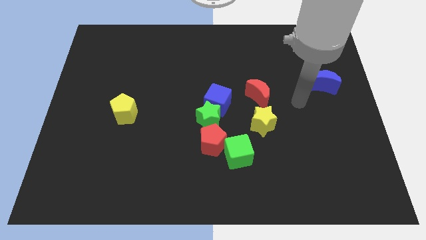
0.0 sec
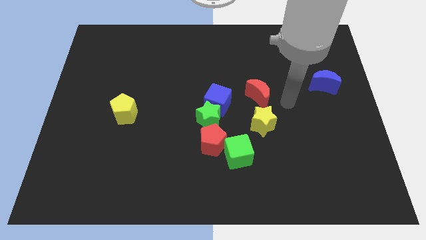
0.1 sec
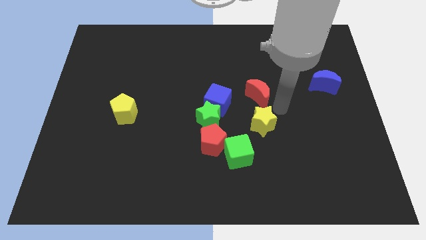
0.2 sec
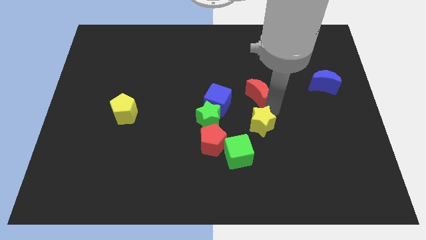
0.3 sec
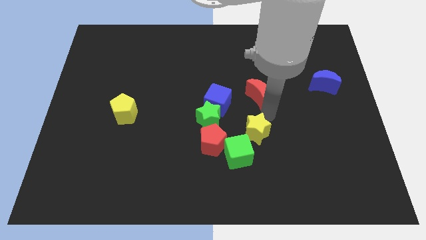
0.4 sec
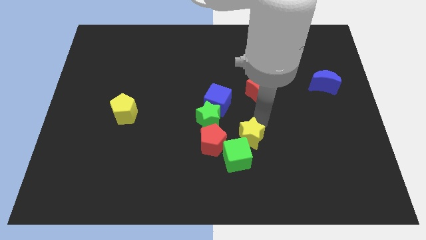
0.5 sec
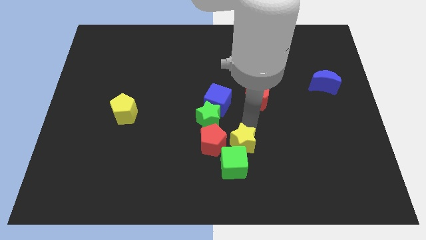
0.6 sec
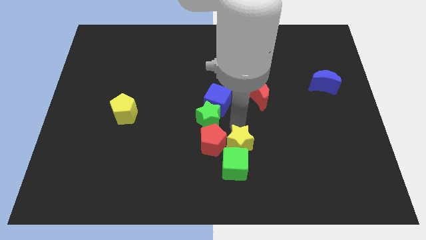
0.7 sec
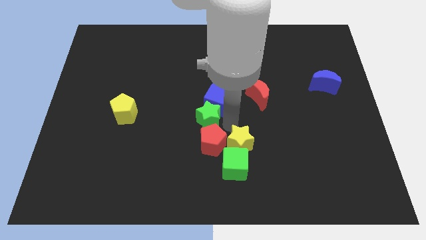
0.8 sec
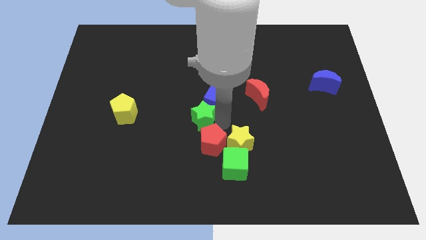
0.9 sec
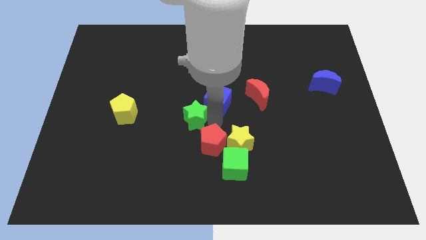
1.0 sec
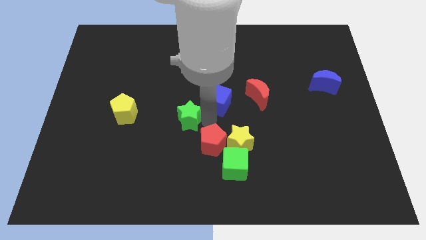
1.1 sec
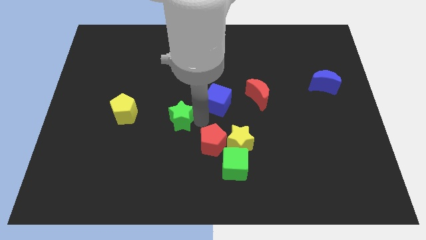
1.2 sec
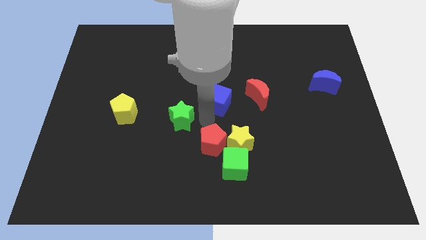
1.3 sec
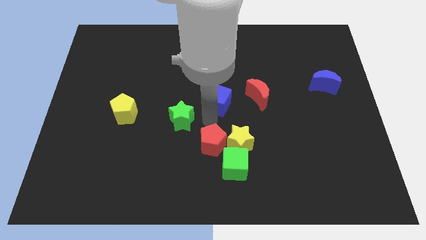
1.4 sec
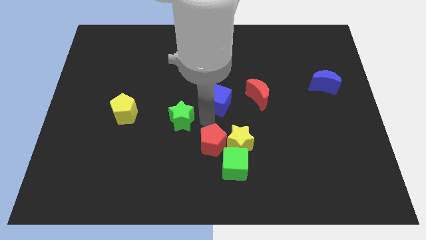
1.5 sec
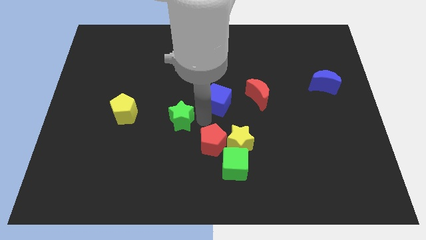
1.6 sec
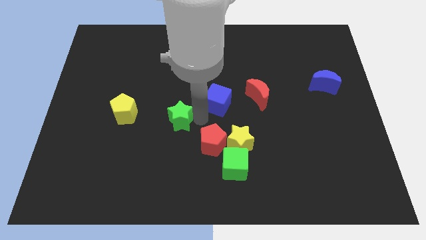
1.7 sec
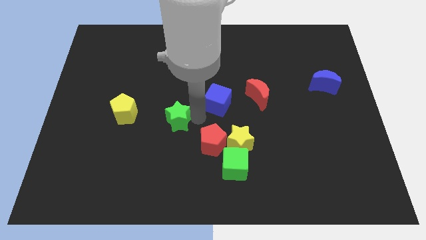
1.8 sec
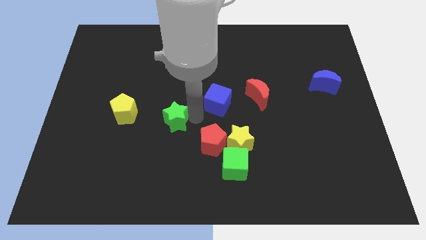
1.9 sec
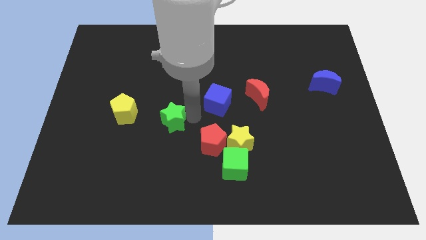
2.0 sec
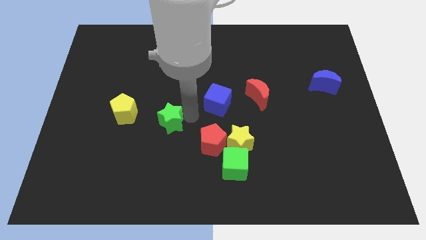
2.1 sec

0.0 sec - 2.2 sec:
pull the green star apart from the blue cube and red pentagon

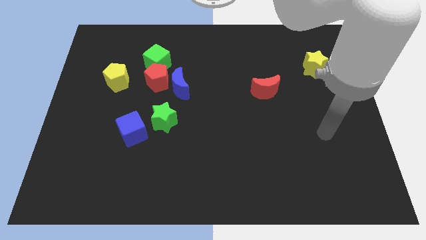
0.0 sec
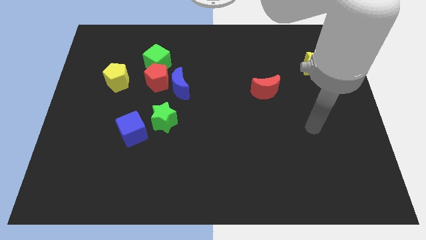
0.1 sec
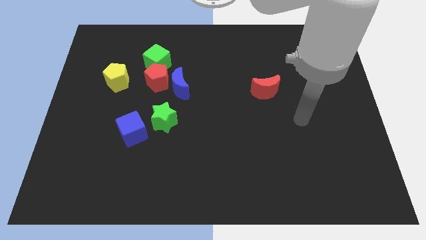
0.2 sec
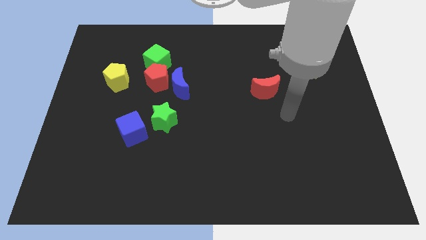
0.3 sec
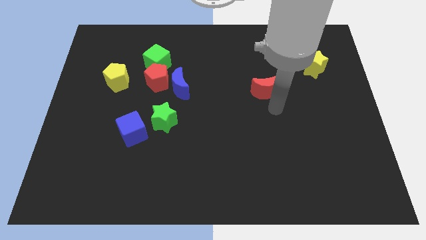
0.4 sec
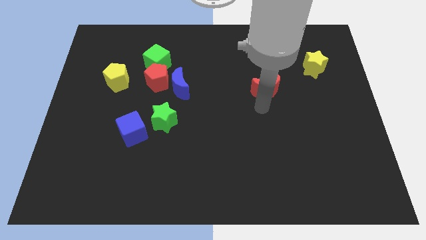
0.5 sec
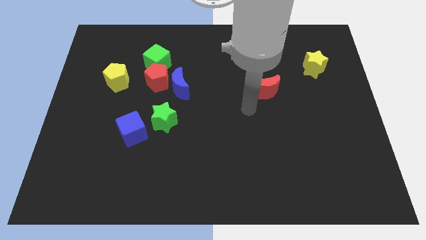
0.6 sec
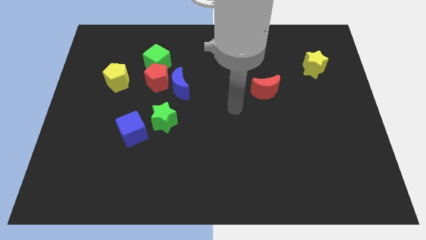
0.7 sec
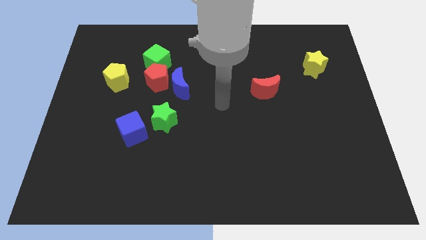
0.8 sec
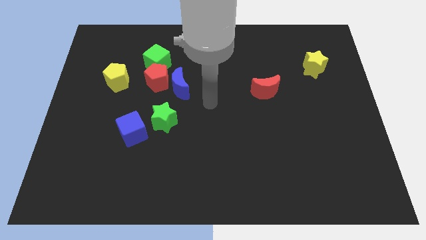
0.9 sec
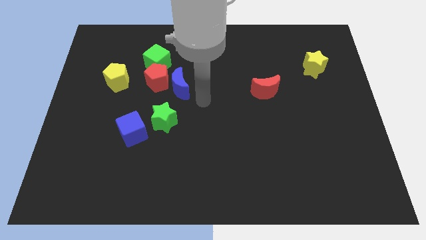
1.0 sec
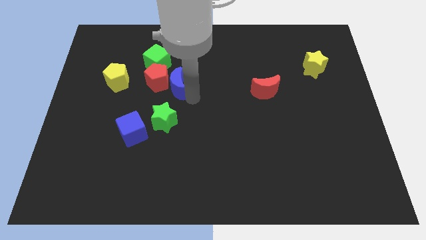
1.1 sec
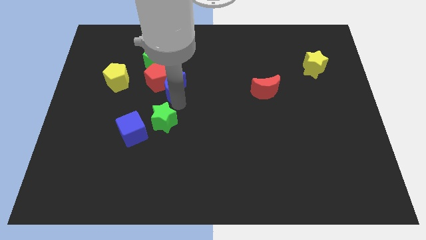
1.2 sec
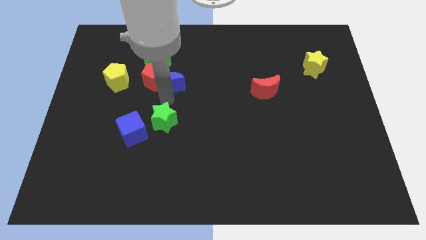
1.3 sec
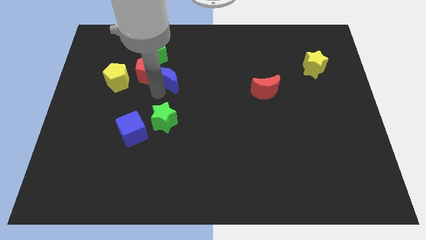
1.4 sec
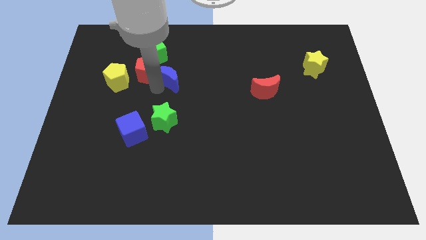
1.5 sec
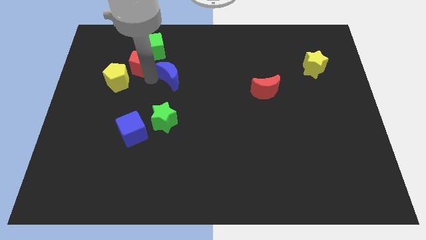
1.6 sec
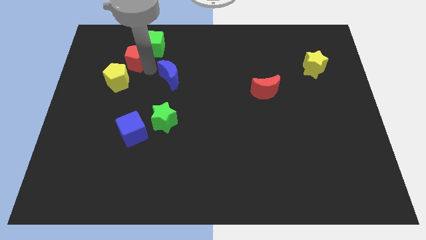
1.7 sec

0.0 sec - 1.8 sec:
move the blue moon away from the red pentagon

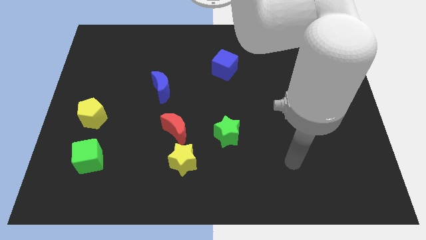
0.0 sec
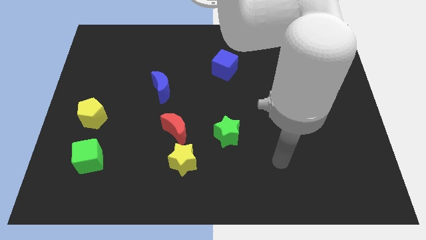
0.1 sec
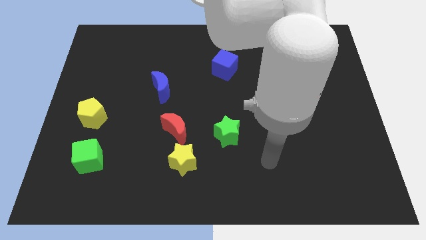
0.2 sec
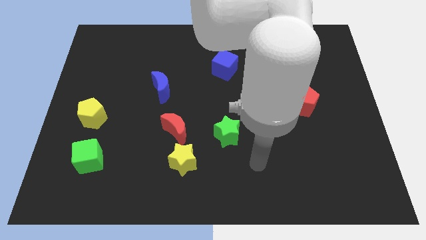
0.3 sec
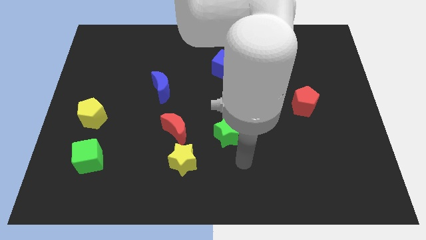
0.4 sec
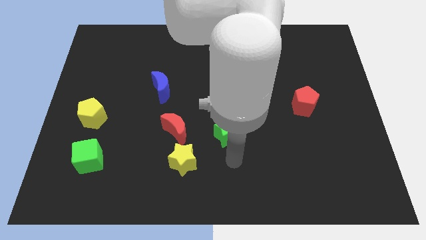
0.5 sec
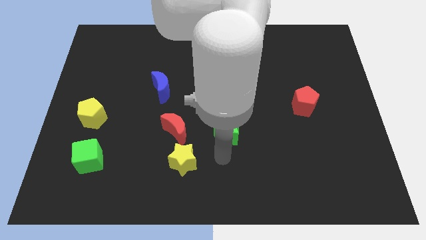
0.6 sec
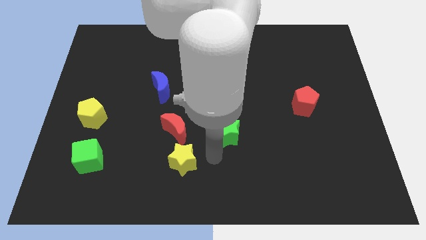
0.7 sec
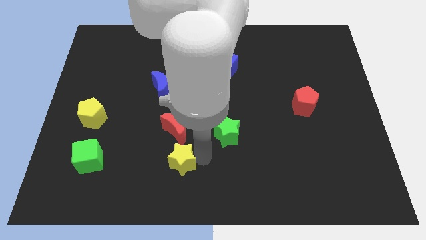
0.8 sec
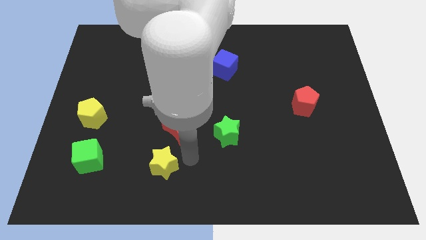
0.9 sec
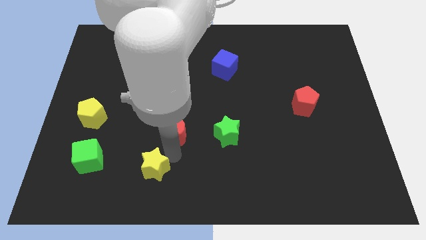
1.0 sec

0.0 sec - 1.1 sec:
move the red moon away from the yellow star

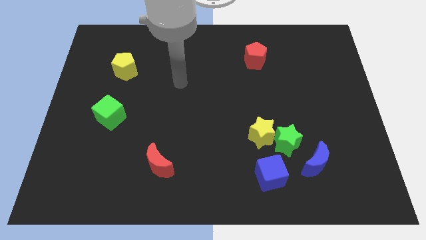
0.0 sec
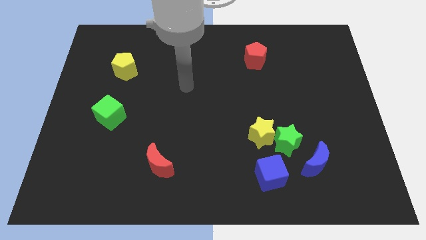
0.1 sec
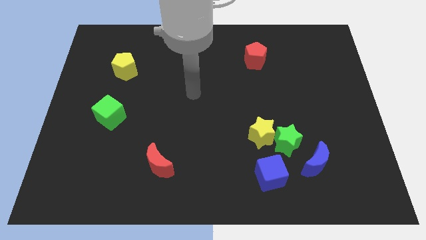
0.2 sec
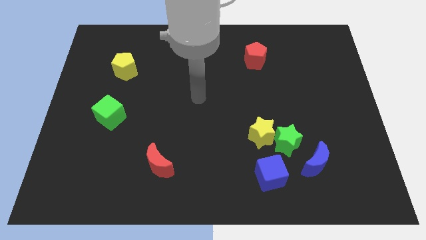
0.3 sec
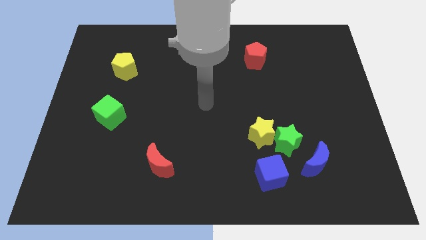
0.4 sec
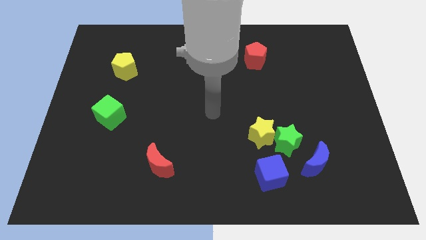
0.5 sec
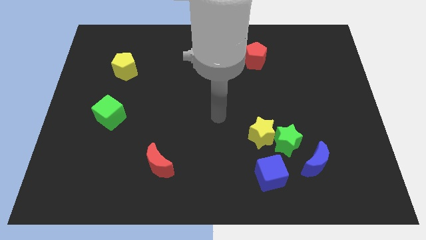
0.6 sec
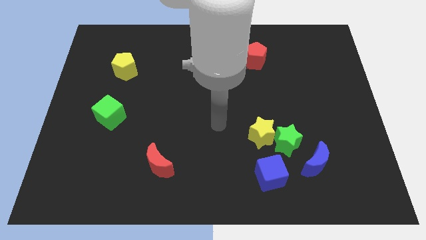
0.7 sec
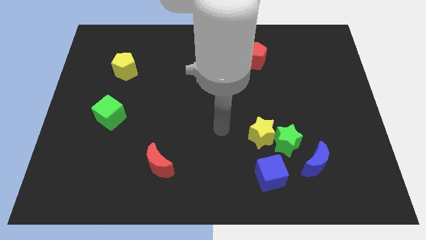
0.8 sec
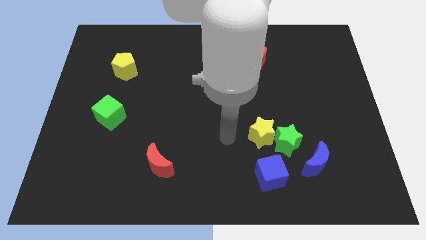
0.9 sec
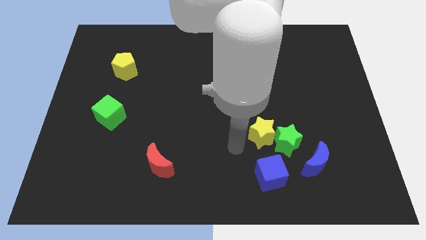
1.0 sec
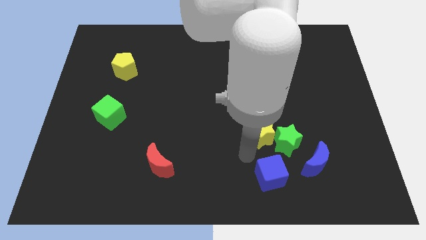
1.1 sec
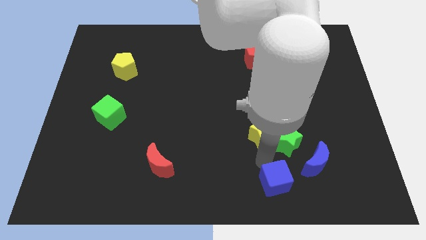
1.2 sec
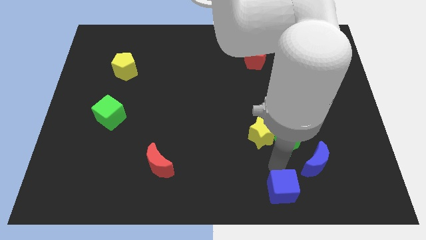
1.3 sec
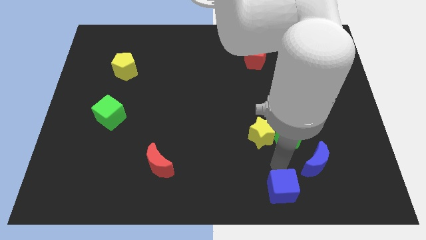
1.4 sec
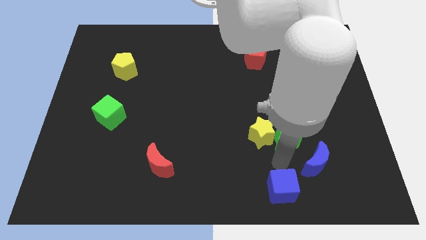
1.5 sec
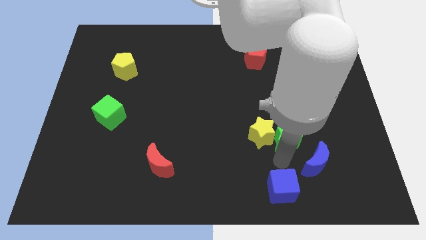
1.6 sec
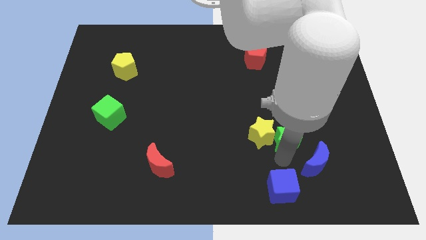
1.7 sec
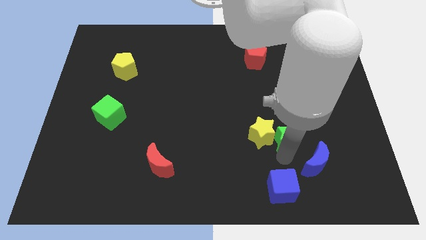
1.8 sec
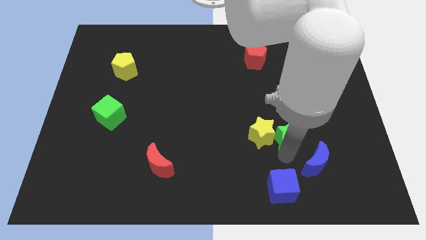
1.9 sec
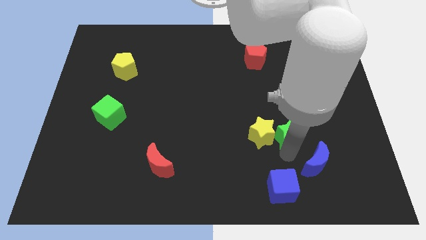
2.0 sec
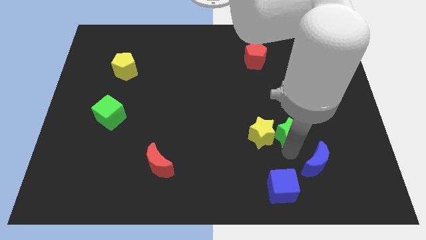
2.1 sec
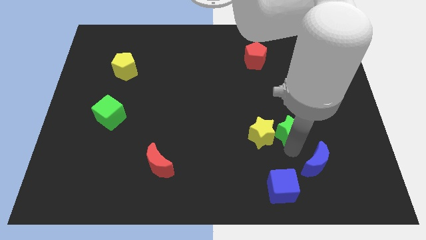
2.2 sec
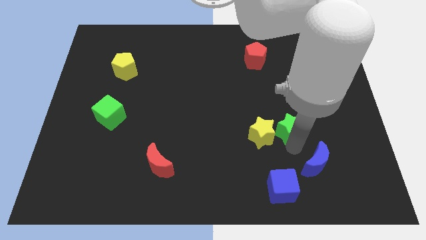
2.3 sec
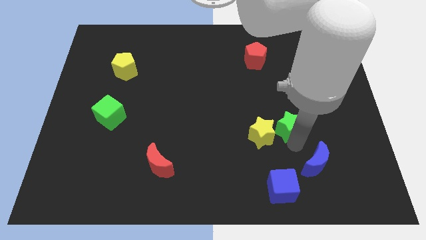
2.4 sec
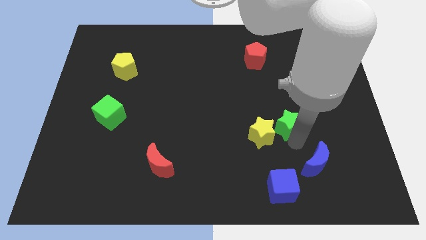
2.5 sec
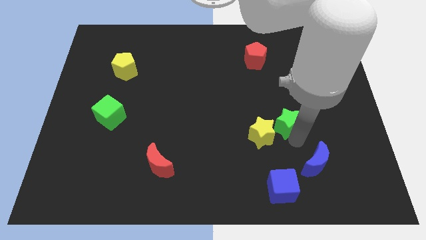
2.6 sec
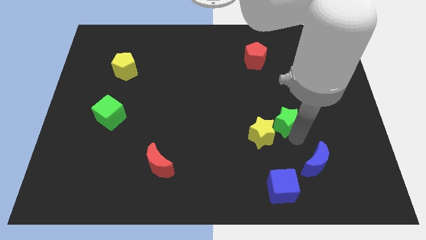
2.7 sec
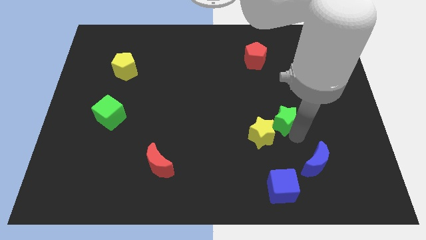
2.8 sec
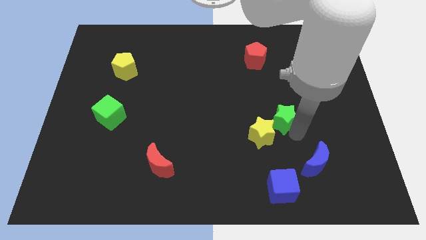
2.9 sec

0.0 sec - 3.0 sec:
separate the green star from the group of blocks

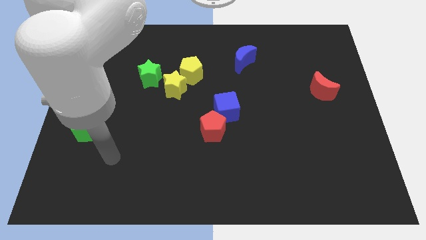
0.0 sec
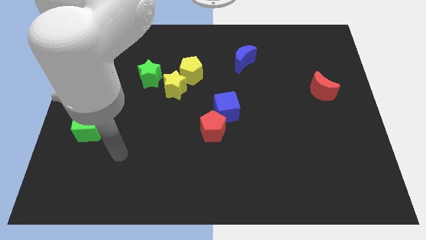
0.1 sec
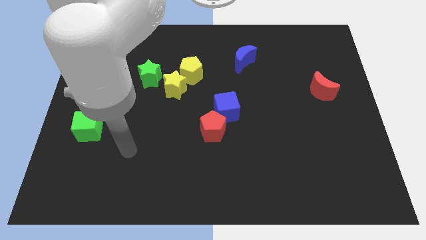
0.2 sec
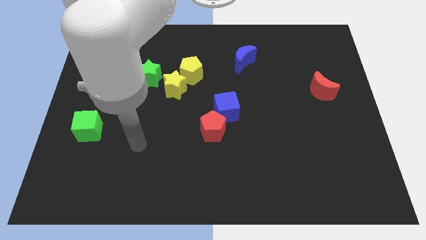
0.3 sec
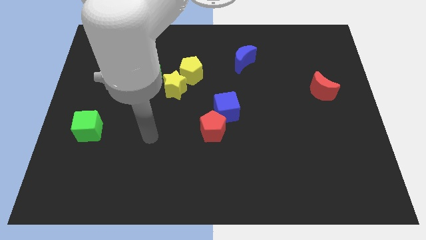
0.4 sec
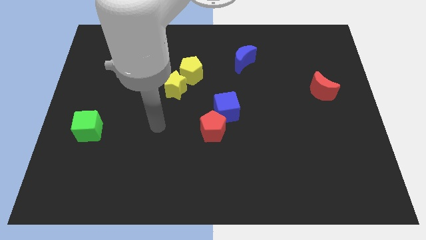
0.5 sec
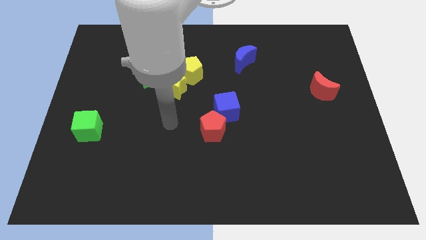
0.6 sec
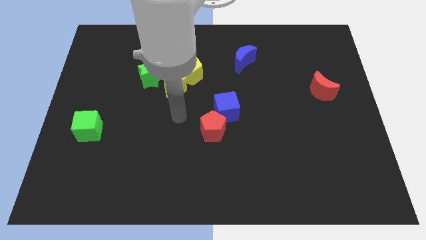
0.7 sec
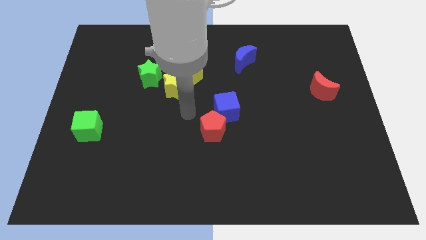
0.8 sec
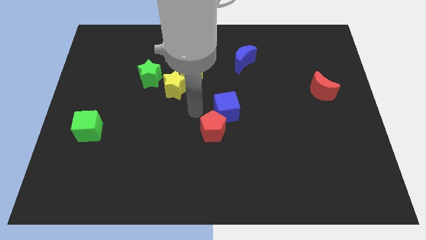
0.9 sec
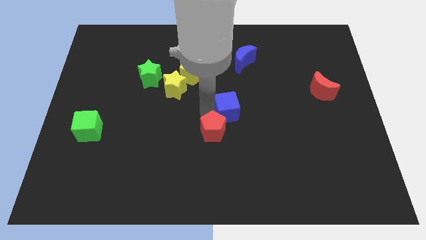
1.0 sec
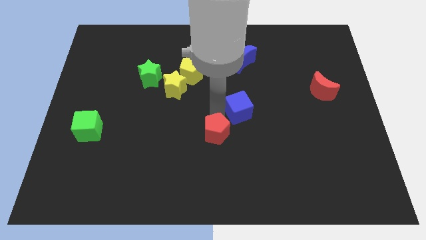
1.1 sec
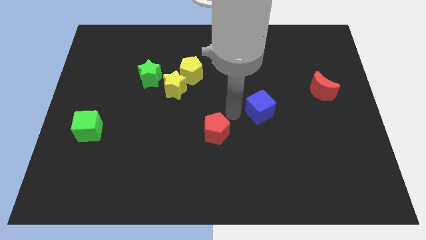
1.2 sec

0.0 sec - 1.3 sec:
pull the red pentagon apart from the blue cube
